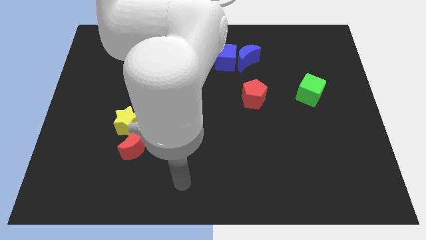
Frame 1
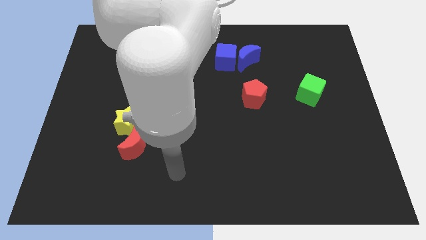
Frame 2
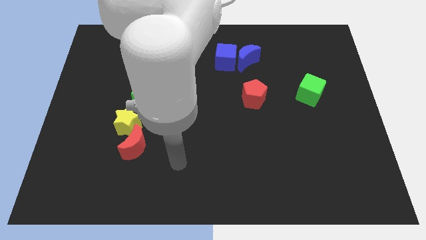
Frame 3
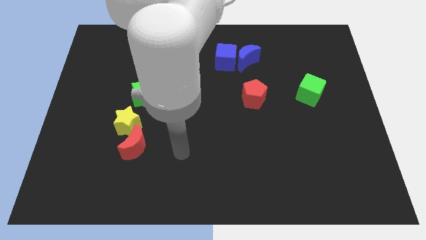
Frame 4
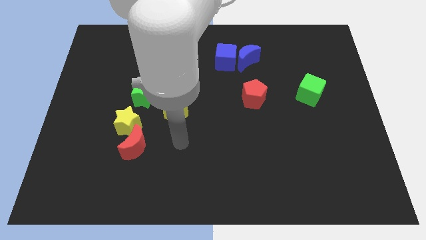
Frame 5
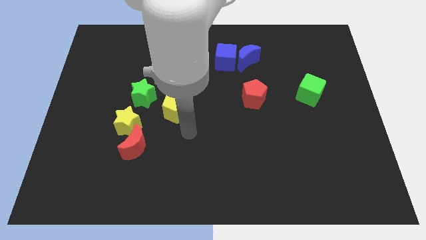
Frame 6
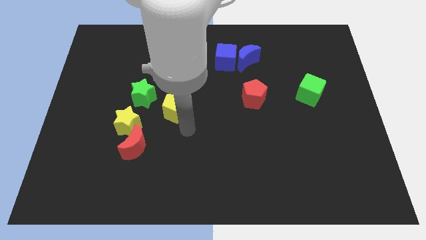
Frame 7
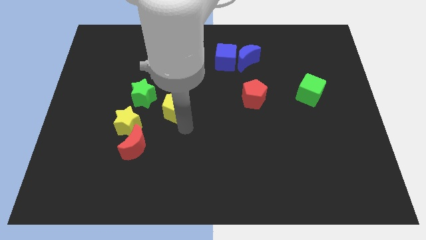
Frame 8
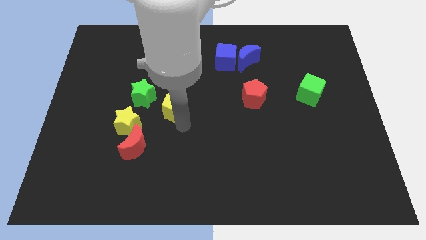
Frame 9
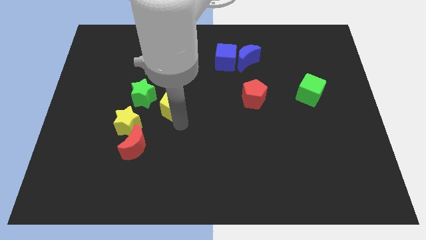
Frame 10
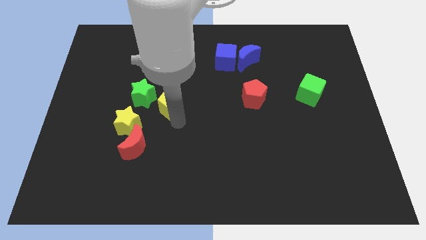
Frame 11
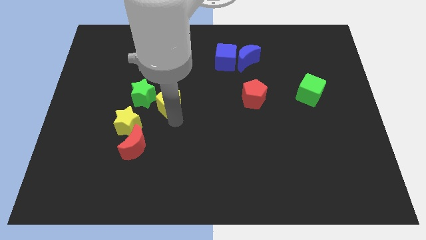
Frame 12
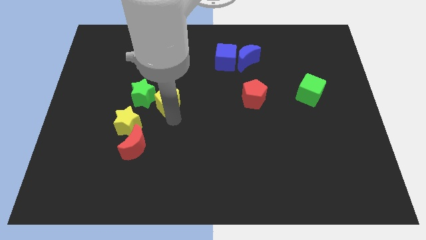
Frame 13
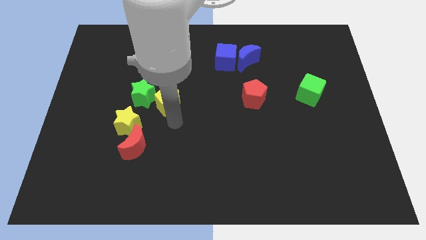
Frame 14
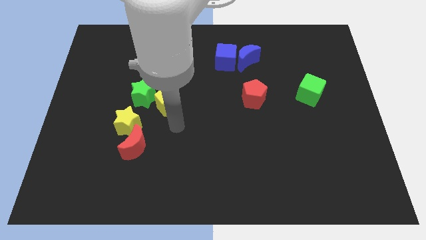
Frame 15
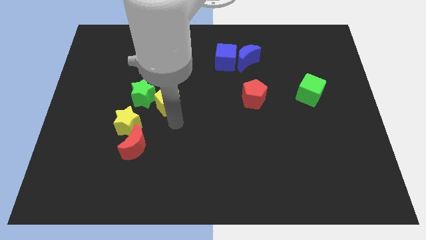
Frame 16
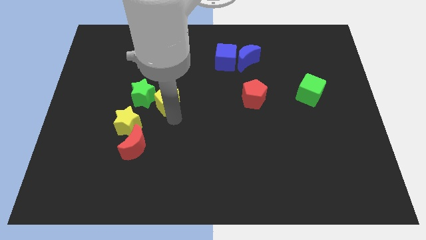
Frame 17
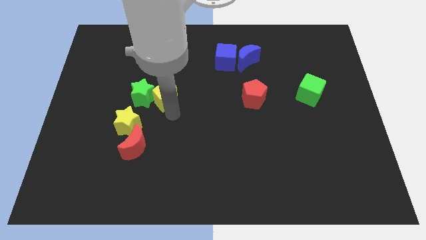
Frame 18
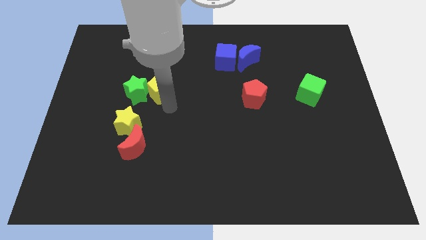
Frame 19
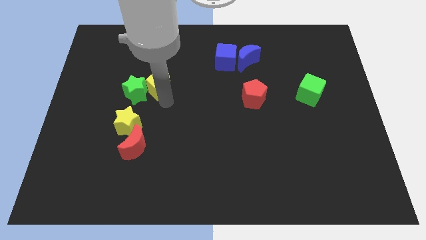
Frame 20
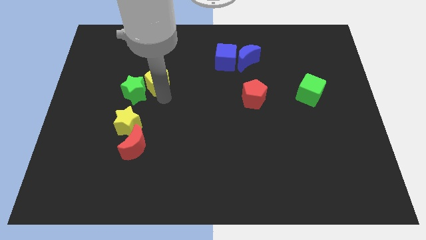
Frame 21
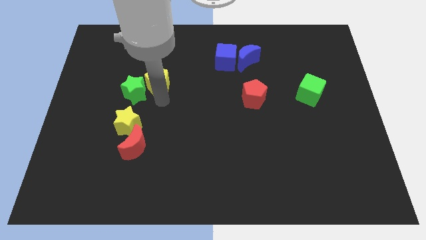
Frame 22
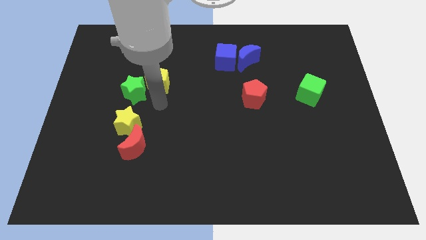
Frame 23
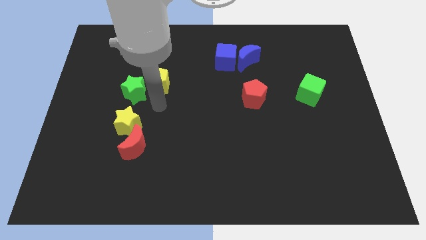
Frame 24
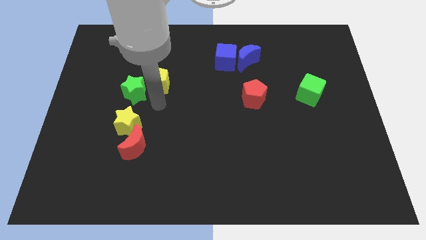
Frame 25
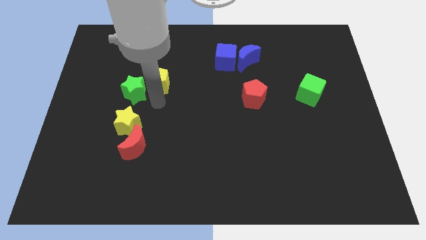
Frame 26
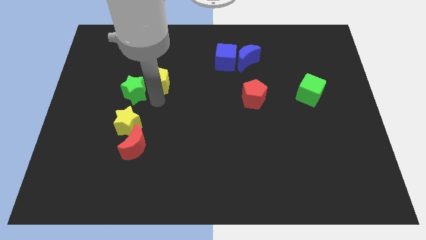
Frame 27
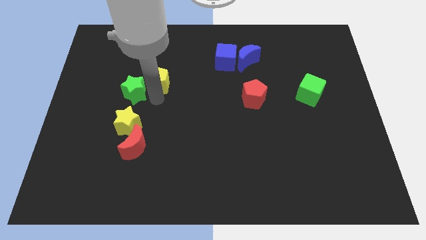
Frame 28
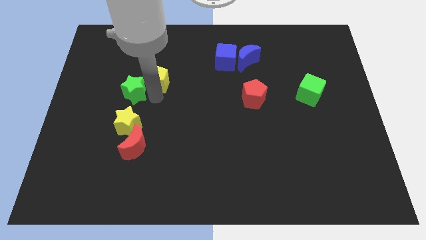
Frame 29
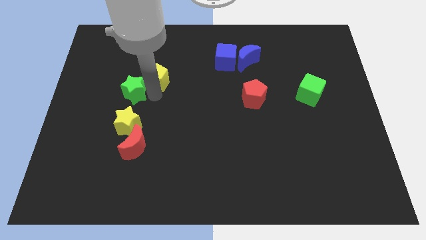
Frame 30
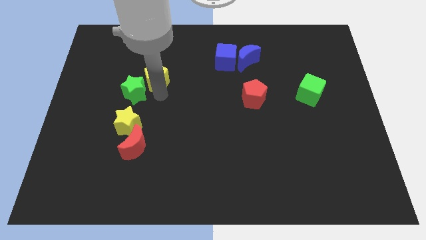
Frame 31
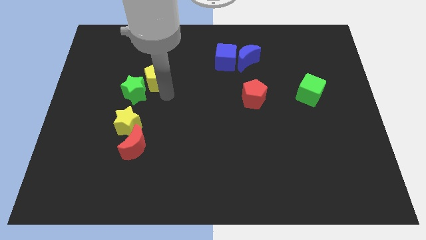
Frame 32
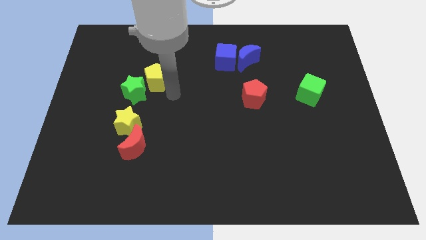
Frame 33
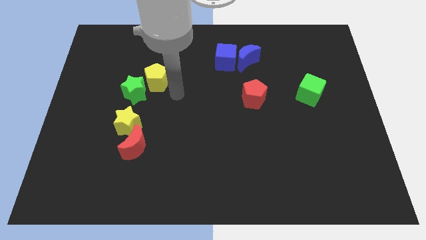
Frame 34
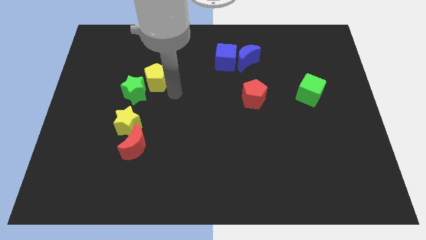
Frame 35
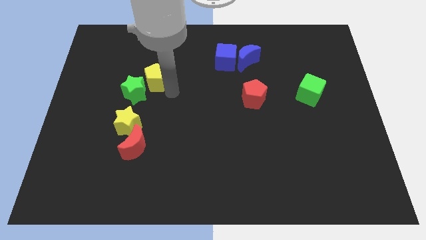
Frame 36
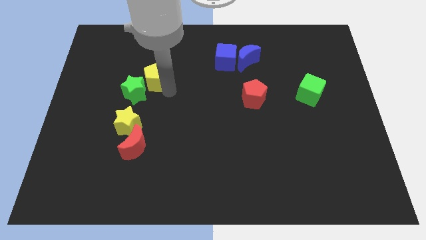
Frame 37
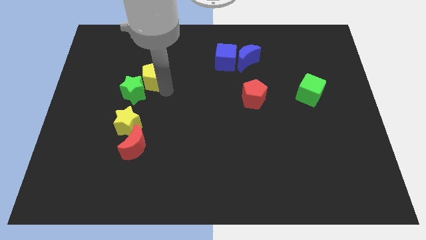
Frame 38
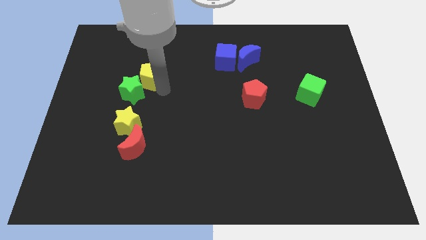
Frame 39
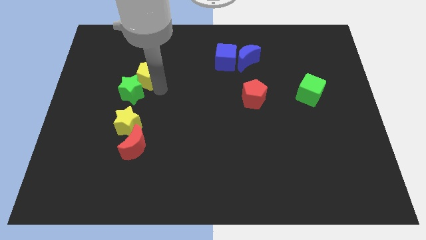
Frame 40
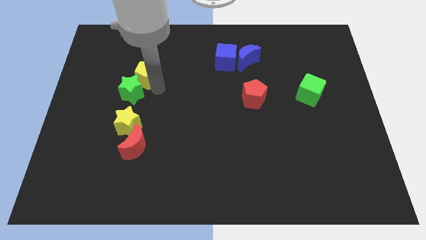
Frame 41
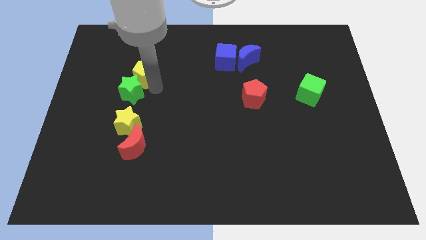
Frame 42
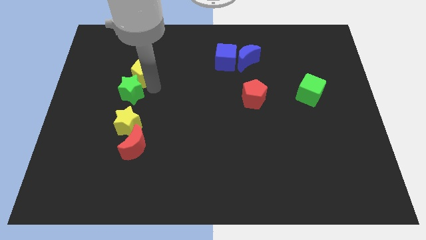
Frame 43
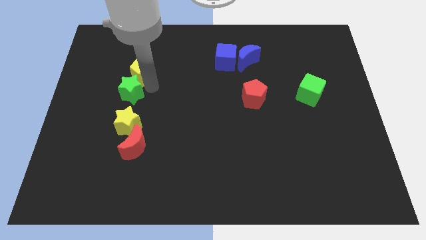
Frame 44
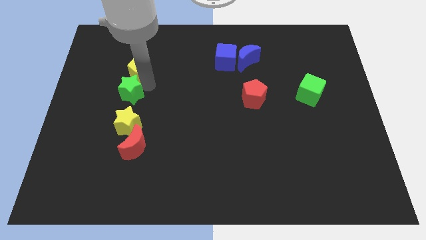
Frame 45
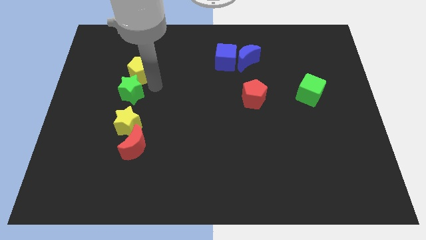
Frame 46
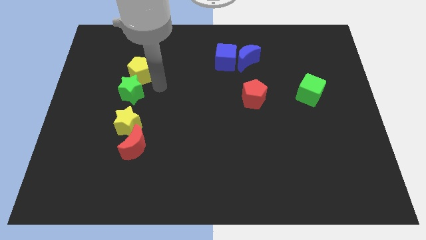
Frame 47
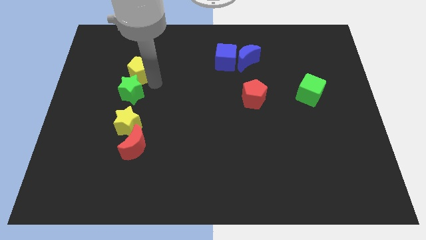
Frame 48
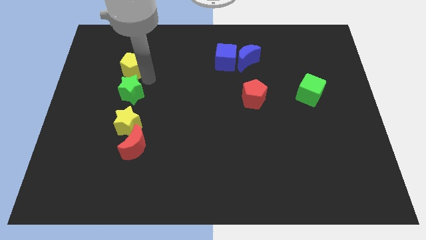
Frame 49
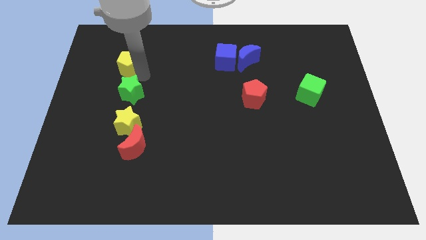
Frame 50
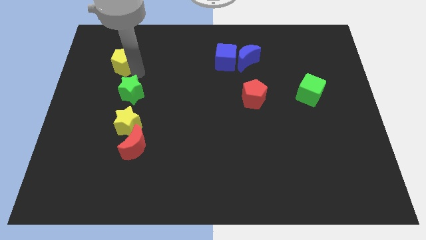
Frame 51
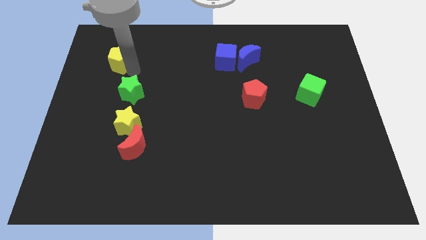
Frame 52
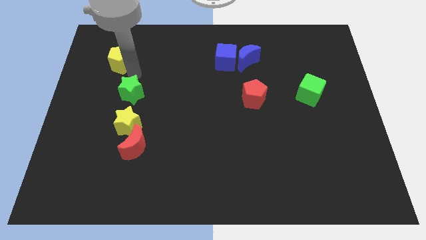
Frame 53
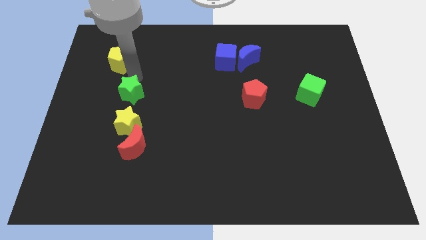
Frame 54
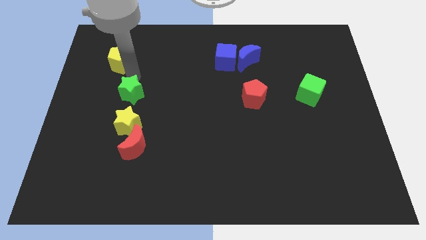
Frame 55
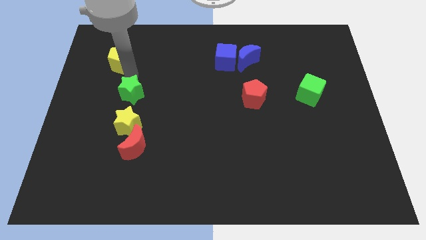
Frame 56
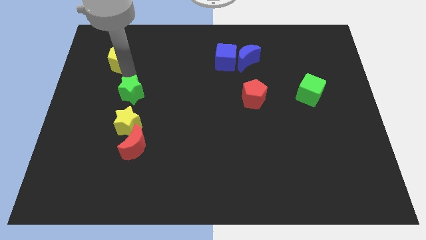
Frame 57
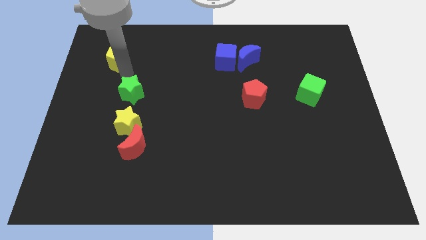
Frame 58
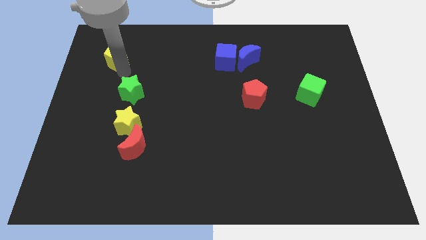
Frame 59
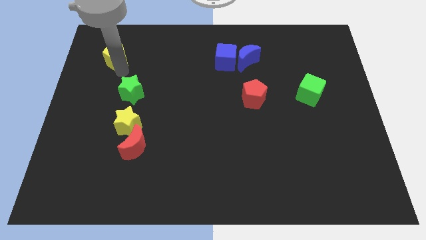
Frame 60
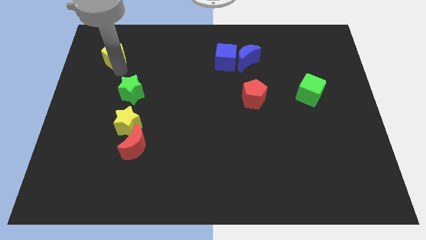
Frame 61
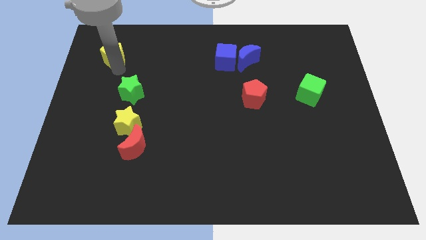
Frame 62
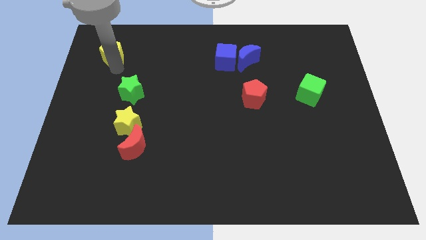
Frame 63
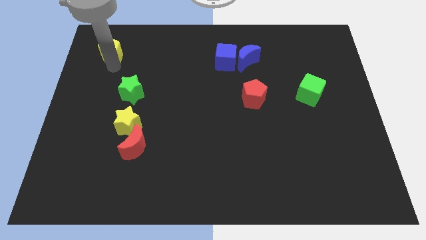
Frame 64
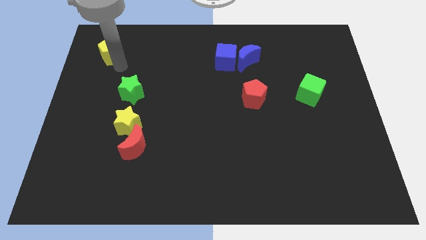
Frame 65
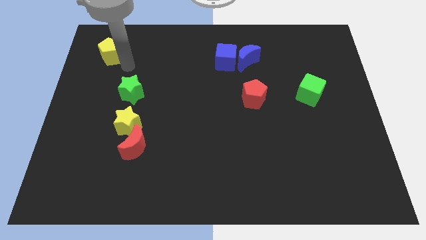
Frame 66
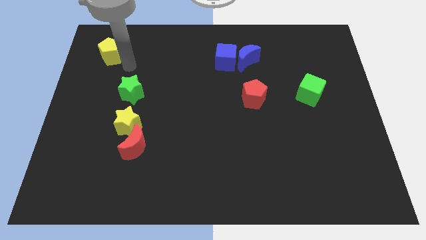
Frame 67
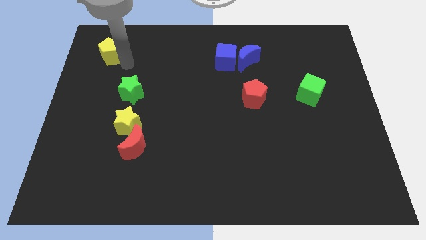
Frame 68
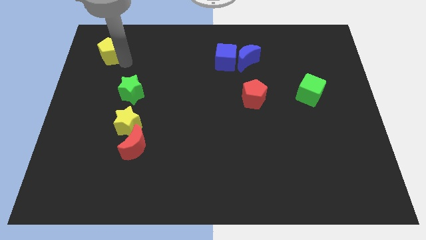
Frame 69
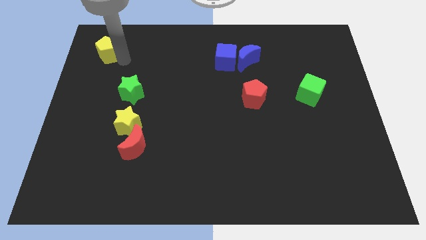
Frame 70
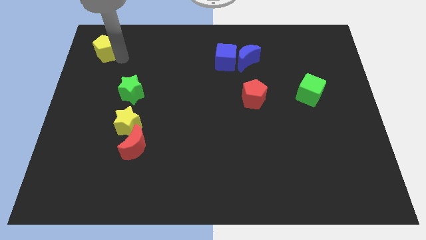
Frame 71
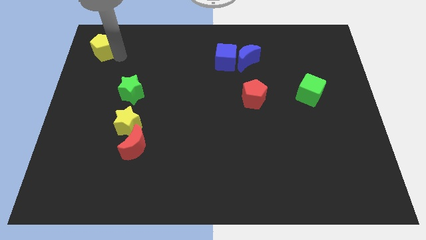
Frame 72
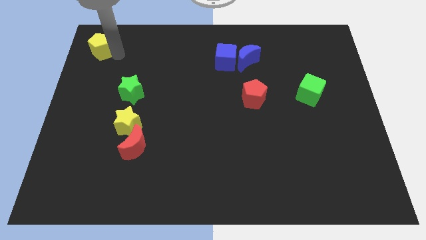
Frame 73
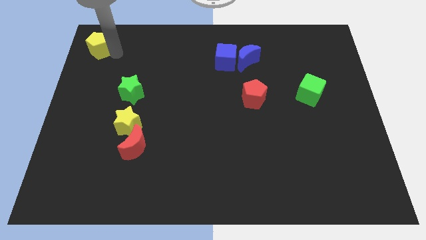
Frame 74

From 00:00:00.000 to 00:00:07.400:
move the yellow pentagon to the top left of the board
